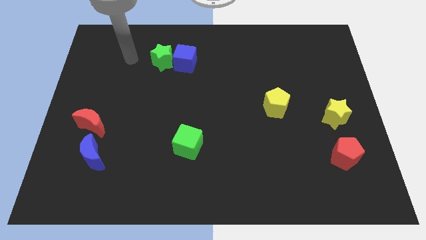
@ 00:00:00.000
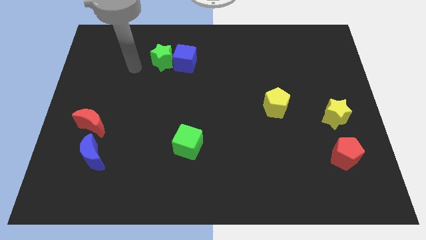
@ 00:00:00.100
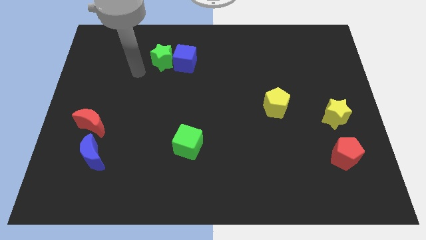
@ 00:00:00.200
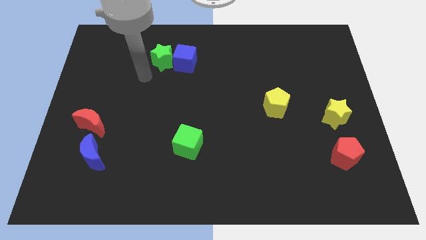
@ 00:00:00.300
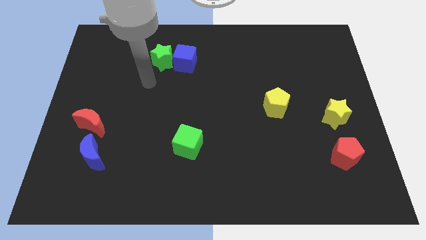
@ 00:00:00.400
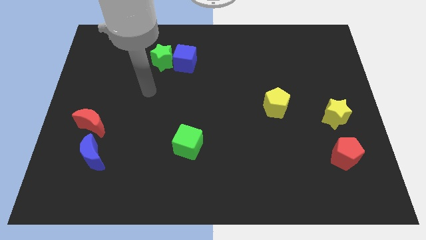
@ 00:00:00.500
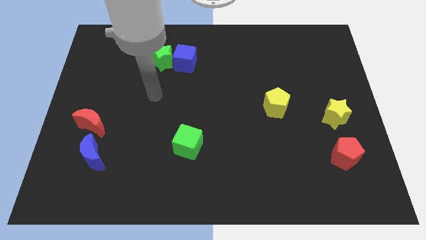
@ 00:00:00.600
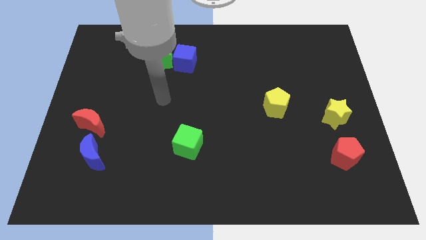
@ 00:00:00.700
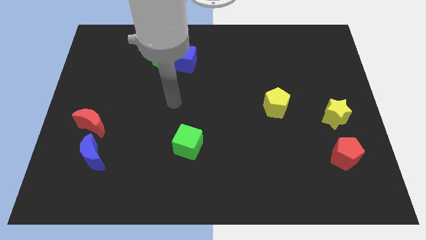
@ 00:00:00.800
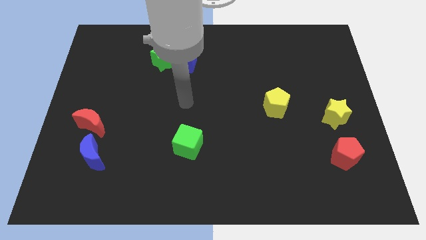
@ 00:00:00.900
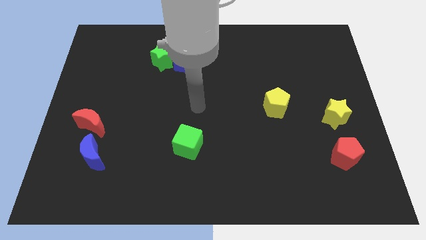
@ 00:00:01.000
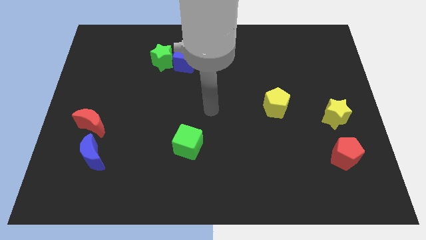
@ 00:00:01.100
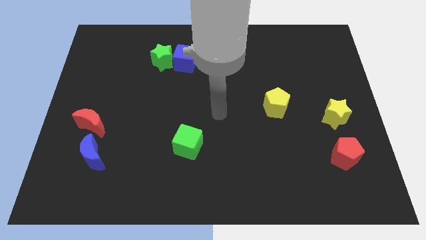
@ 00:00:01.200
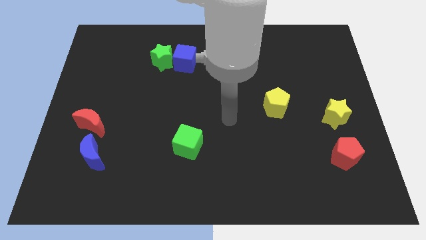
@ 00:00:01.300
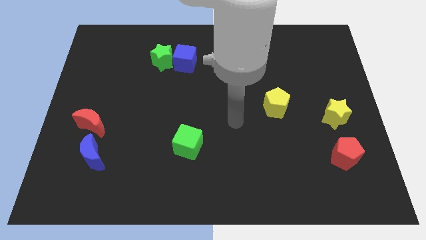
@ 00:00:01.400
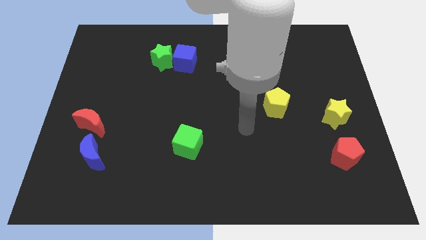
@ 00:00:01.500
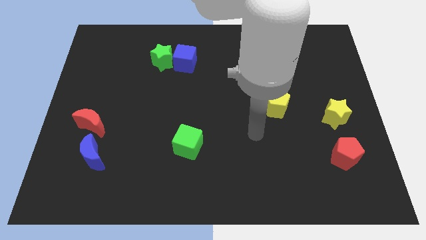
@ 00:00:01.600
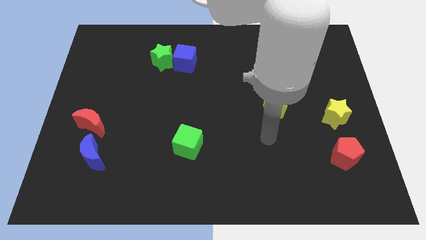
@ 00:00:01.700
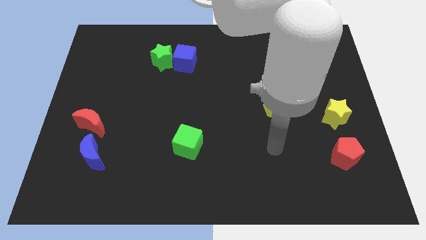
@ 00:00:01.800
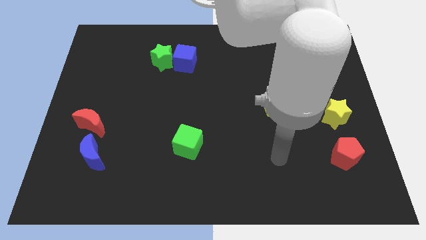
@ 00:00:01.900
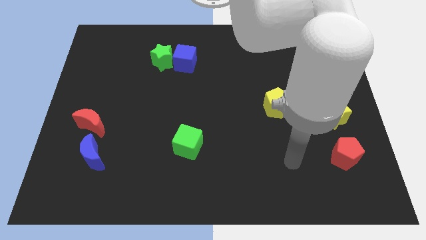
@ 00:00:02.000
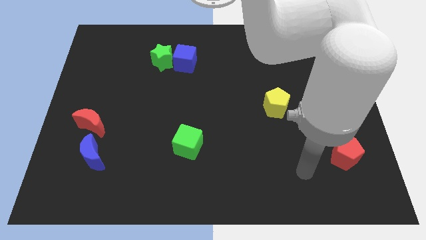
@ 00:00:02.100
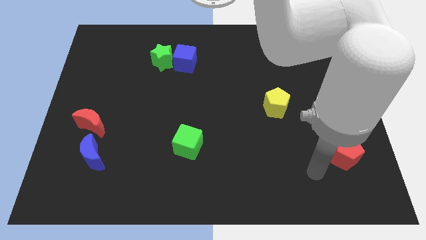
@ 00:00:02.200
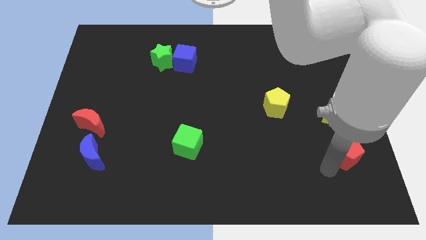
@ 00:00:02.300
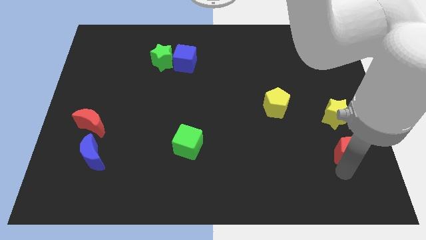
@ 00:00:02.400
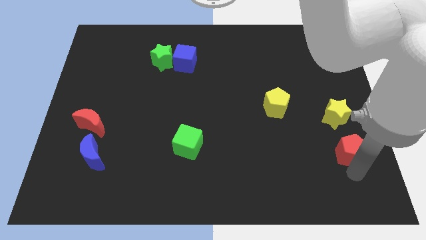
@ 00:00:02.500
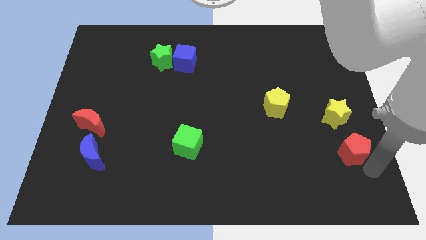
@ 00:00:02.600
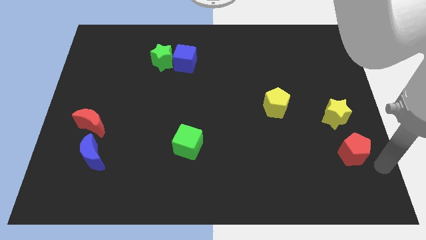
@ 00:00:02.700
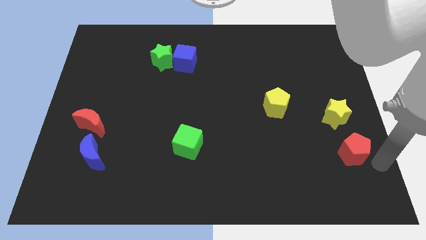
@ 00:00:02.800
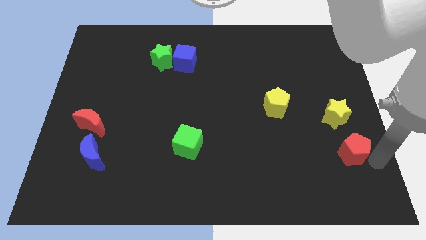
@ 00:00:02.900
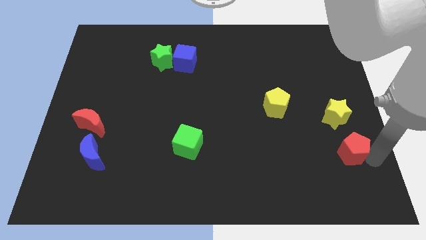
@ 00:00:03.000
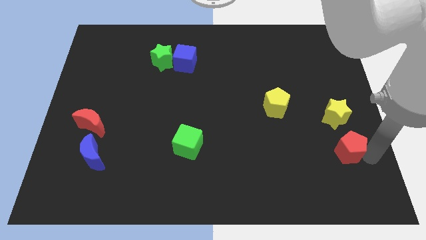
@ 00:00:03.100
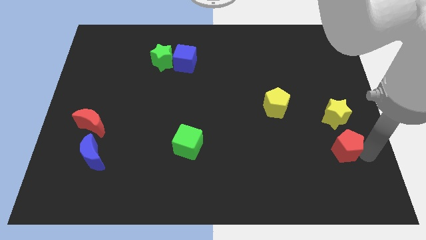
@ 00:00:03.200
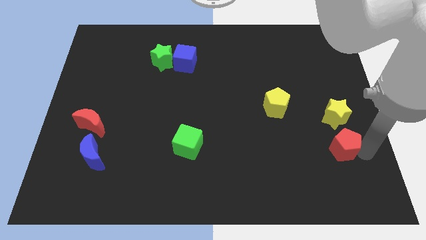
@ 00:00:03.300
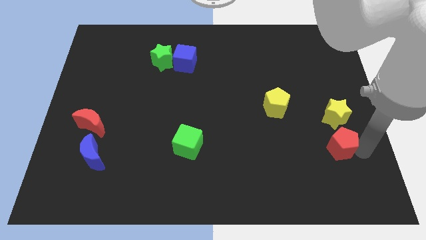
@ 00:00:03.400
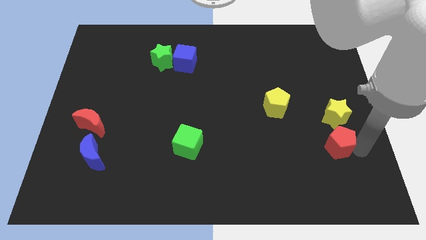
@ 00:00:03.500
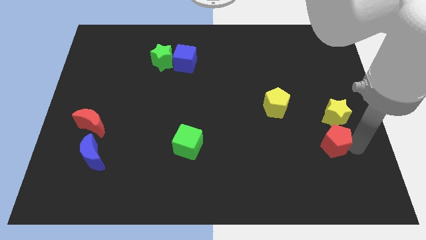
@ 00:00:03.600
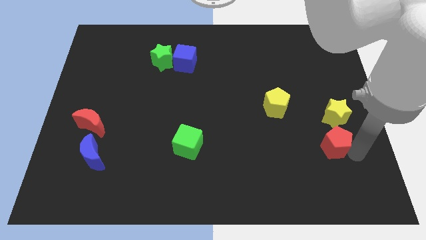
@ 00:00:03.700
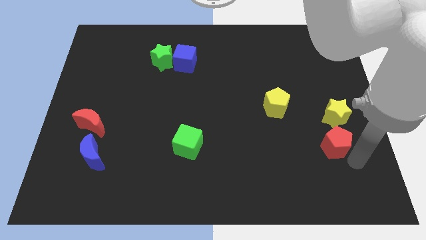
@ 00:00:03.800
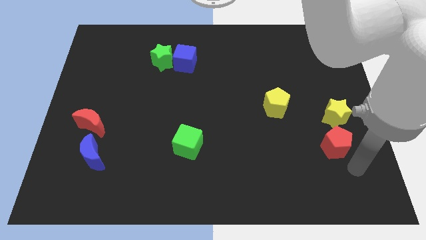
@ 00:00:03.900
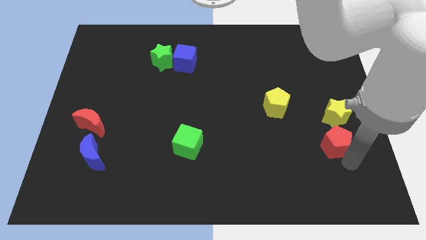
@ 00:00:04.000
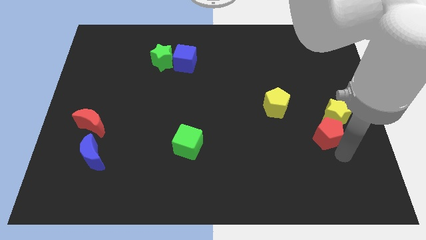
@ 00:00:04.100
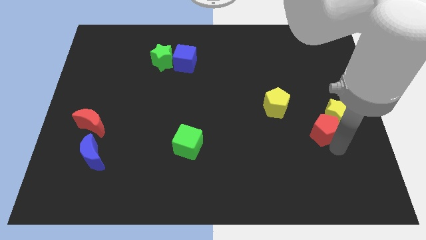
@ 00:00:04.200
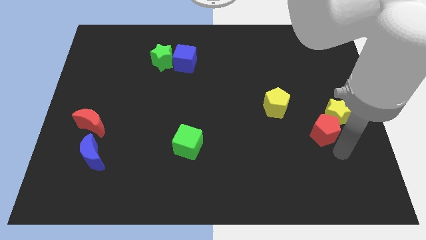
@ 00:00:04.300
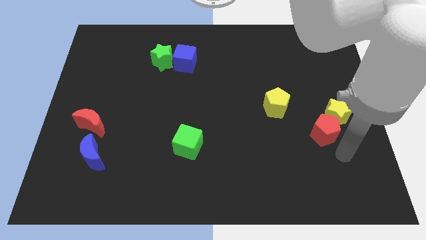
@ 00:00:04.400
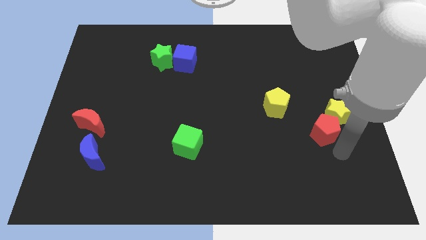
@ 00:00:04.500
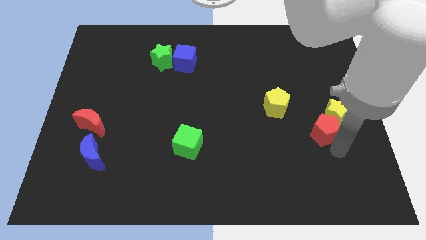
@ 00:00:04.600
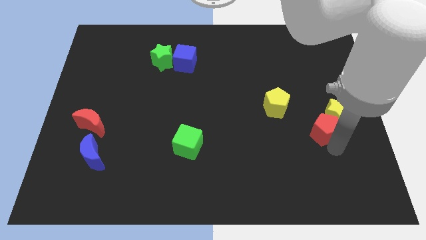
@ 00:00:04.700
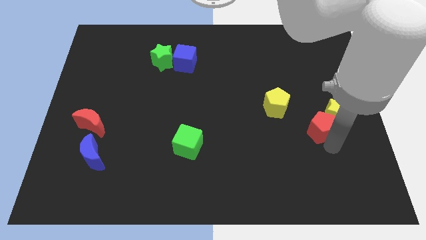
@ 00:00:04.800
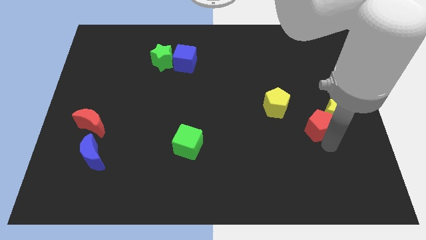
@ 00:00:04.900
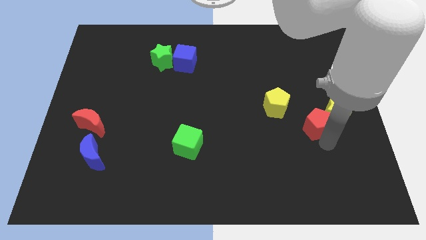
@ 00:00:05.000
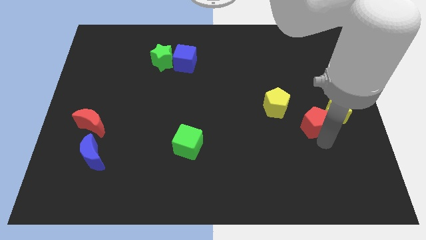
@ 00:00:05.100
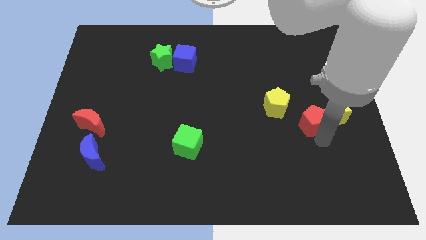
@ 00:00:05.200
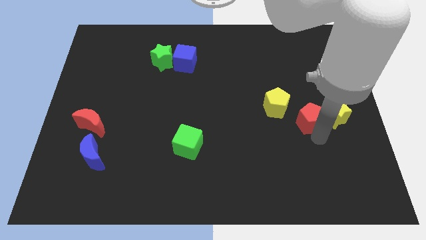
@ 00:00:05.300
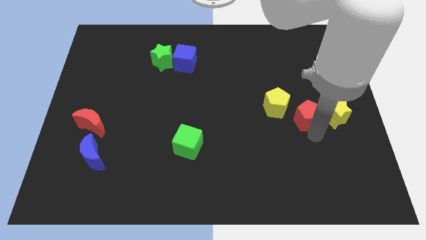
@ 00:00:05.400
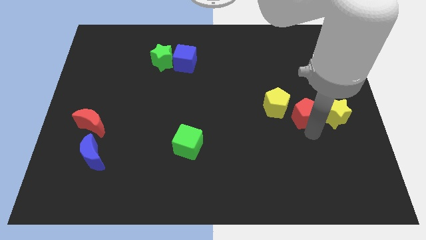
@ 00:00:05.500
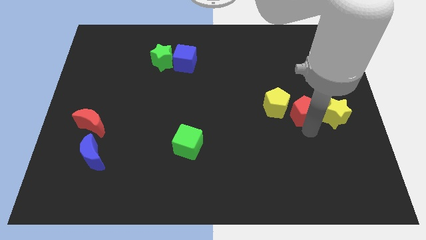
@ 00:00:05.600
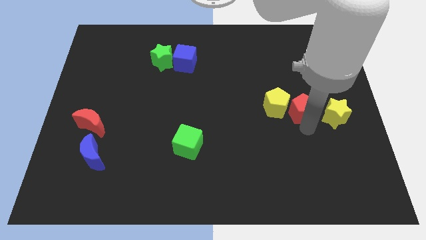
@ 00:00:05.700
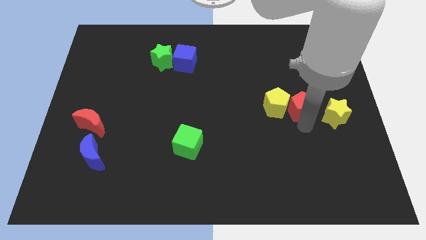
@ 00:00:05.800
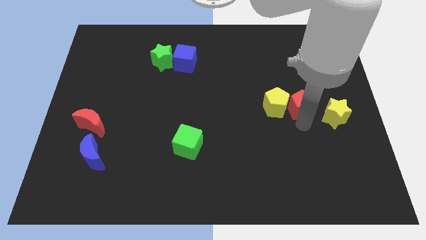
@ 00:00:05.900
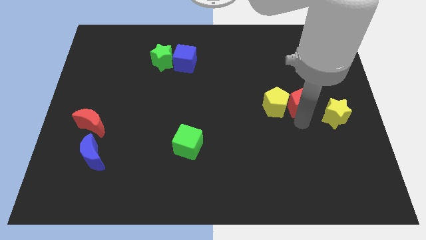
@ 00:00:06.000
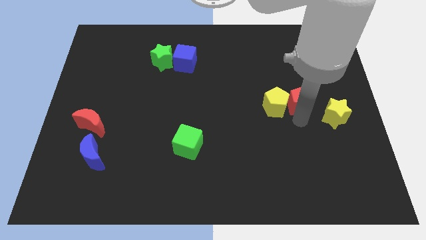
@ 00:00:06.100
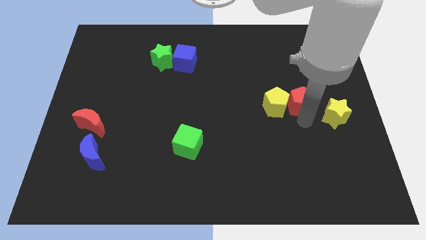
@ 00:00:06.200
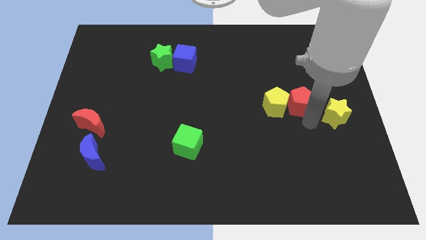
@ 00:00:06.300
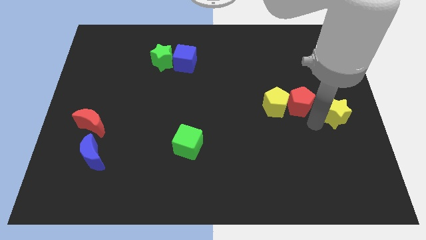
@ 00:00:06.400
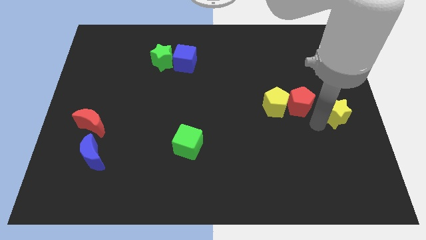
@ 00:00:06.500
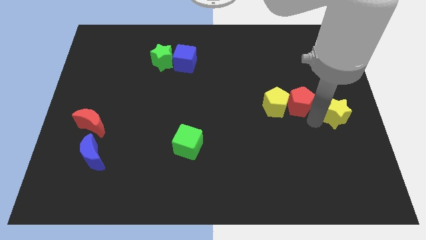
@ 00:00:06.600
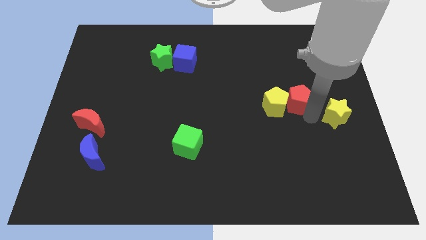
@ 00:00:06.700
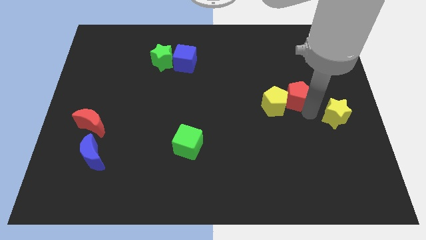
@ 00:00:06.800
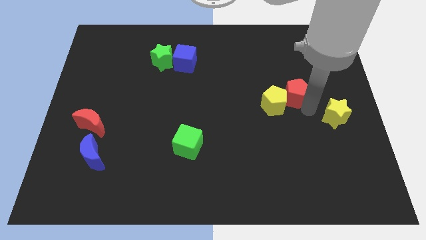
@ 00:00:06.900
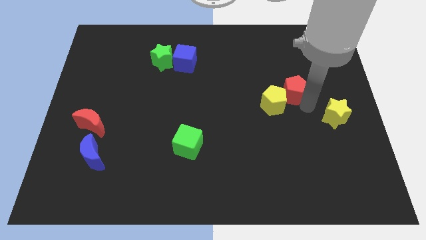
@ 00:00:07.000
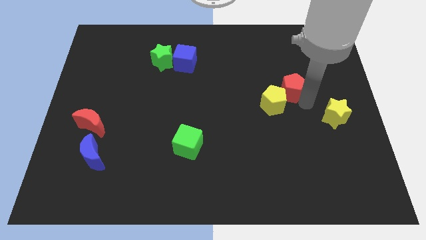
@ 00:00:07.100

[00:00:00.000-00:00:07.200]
move the red pentagon above the yellow pentagon
